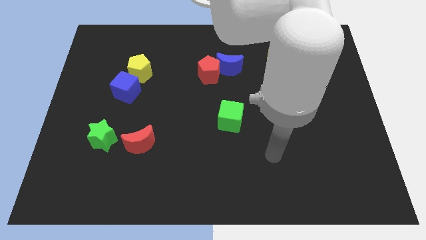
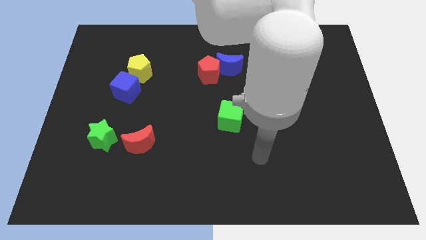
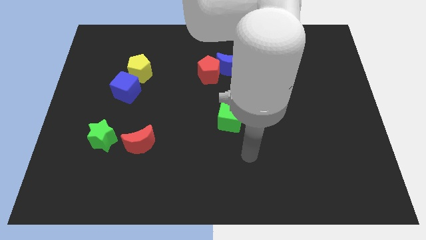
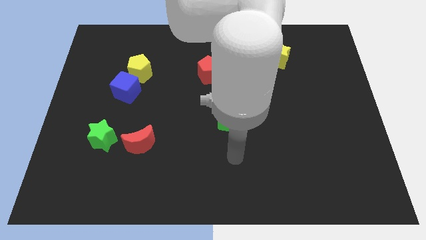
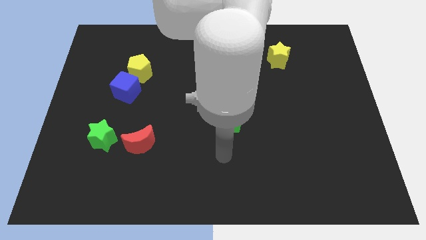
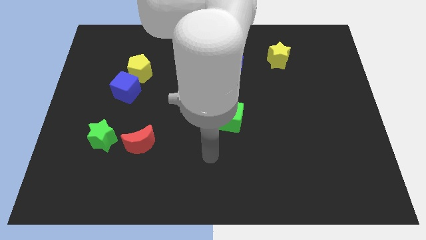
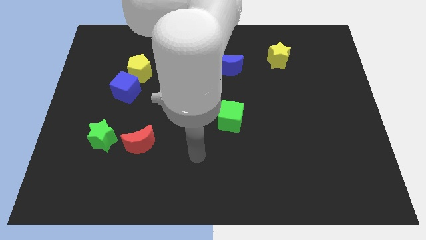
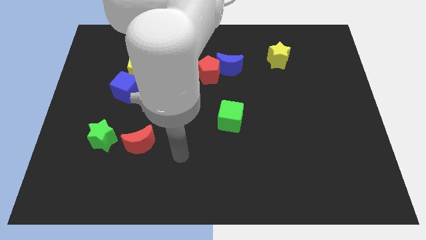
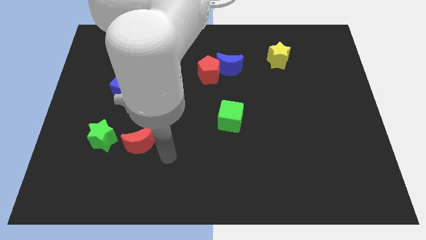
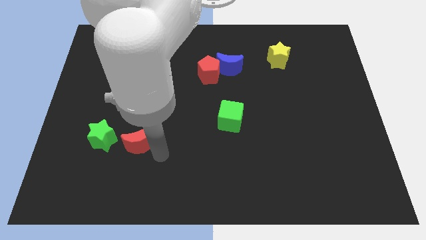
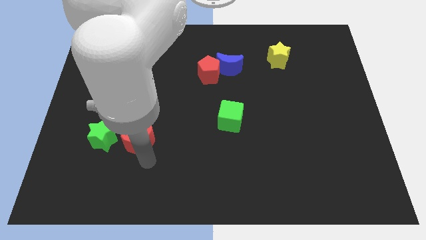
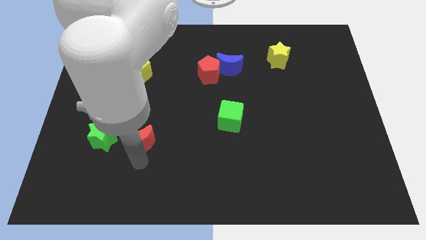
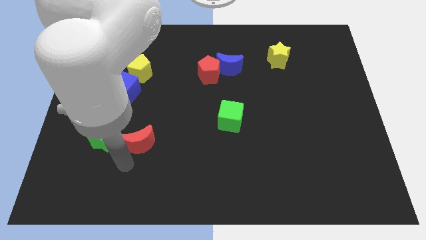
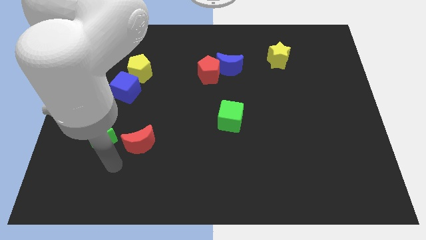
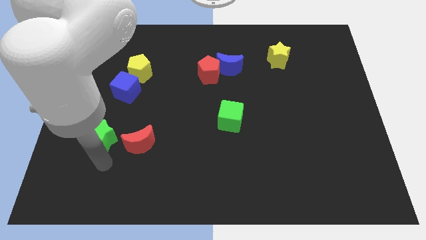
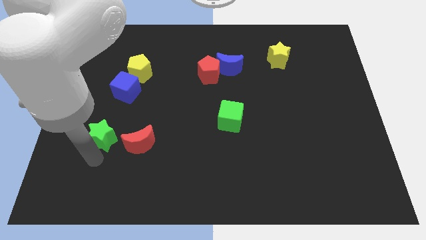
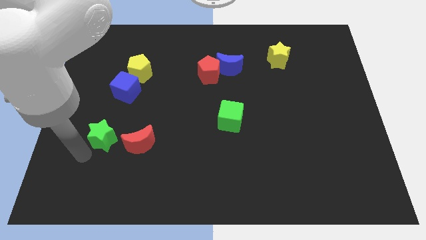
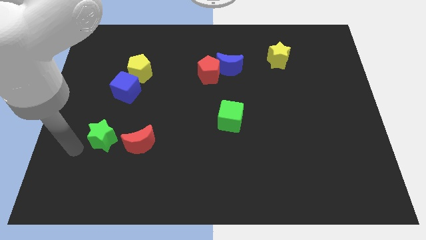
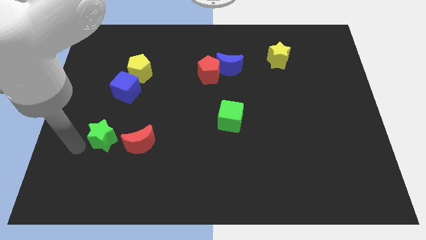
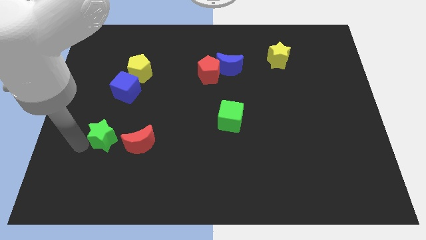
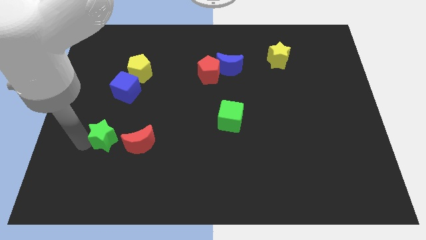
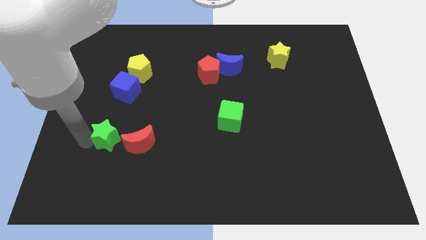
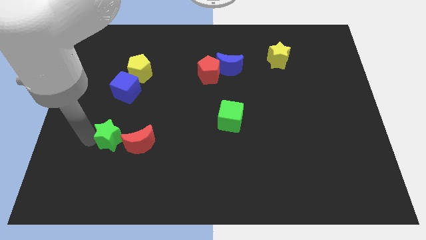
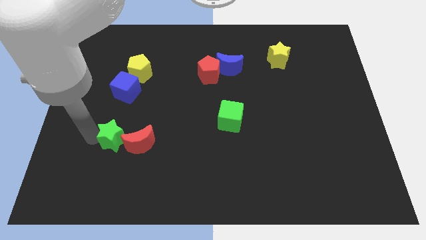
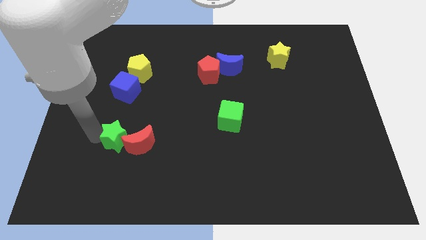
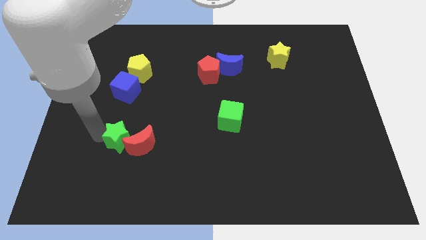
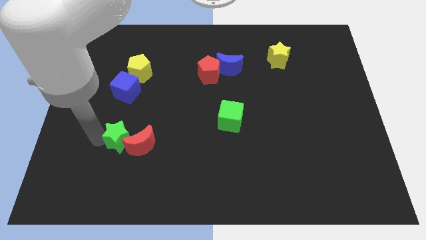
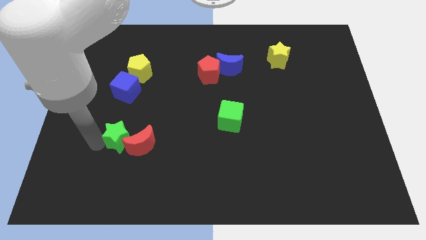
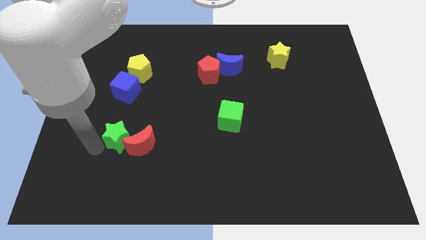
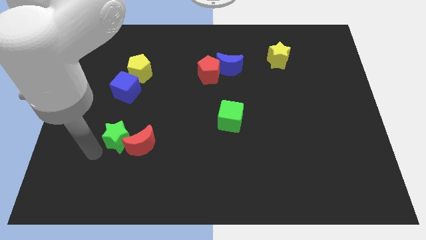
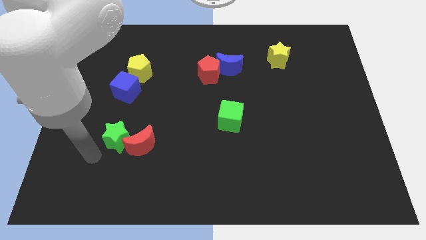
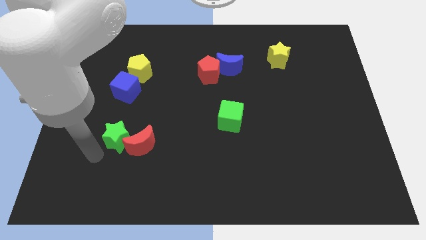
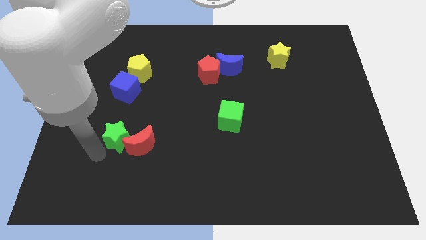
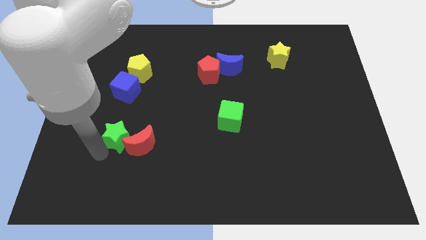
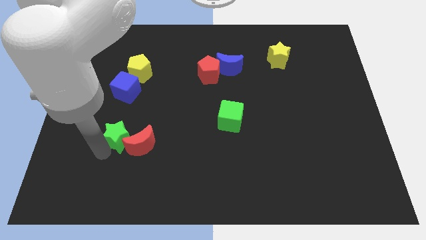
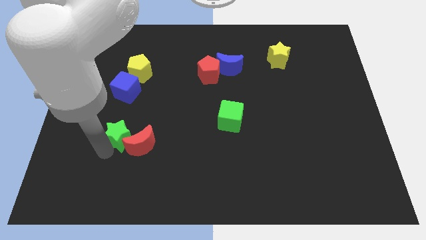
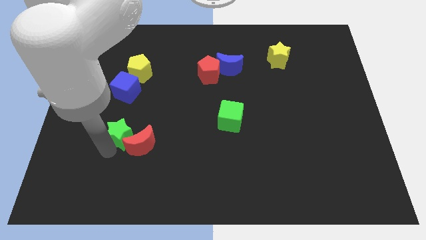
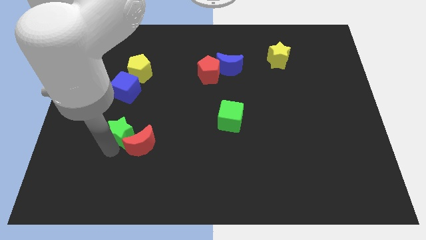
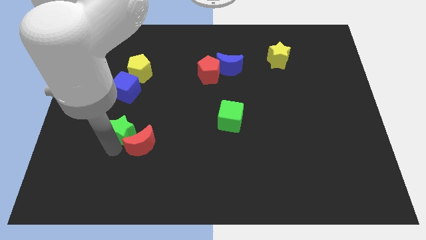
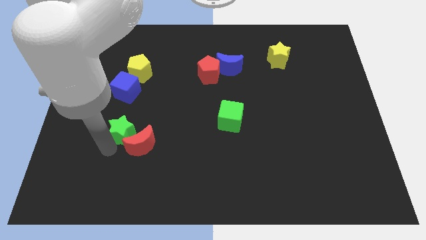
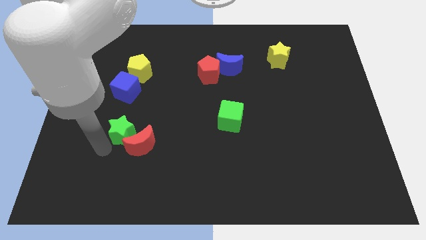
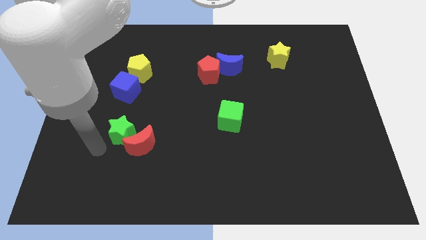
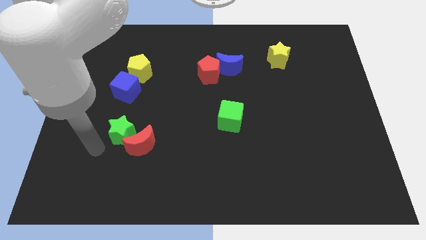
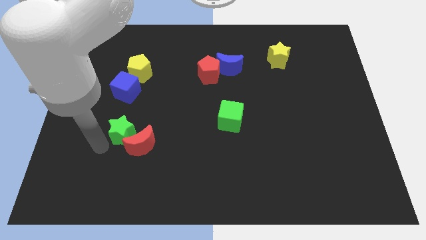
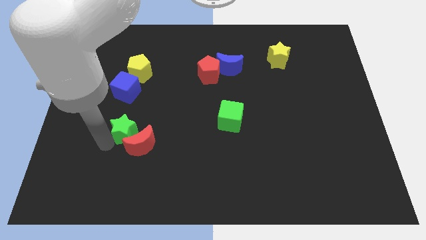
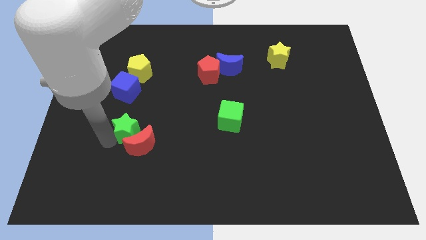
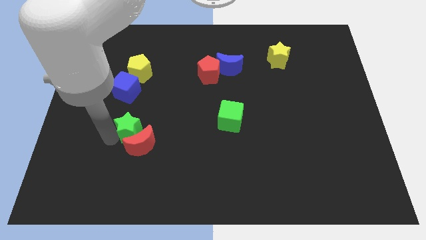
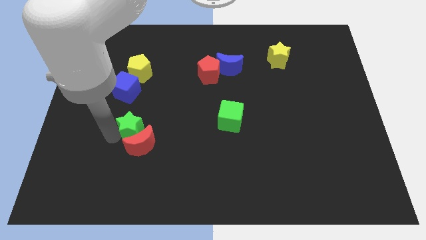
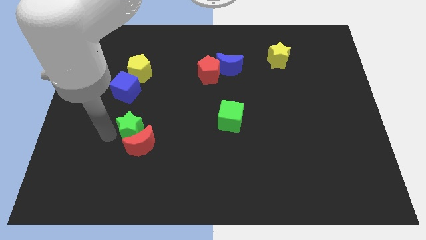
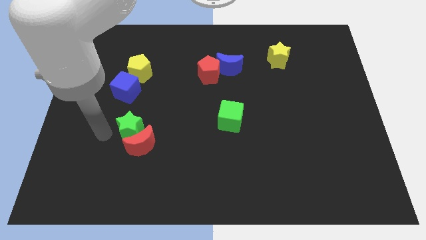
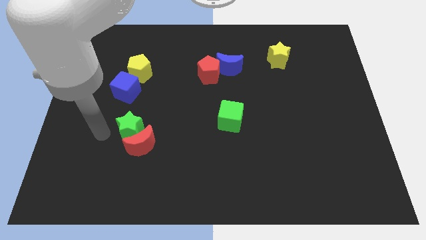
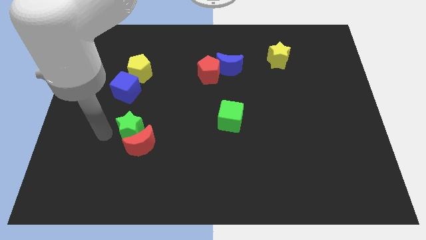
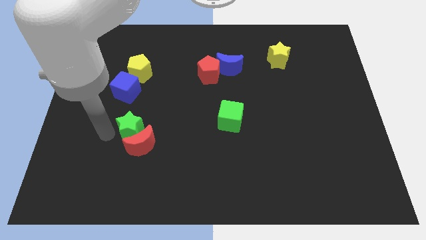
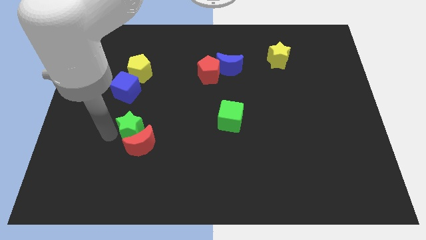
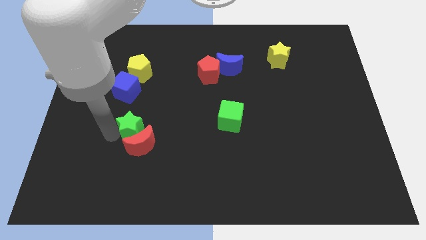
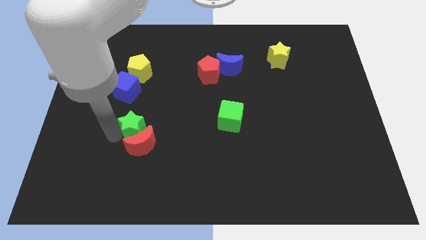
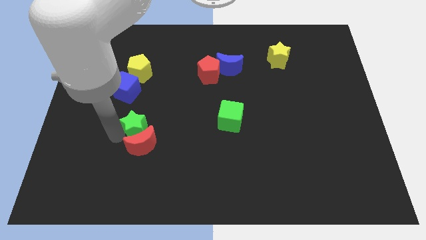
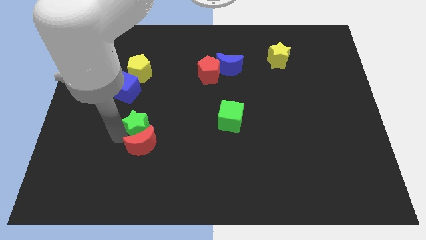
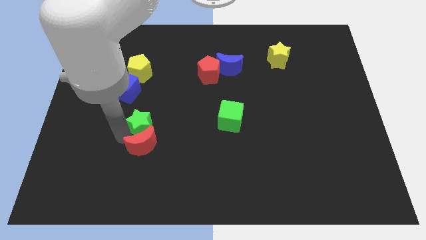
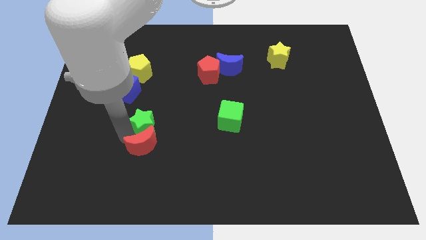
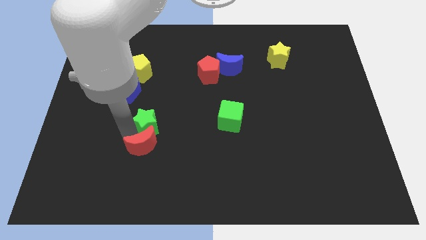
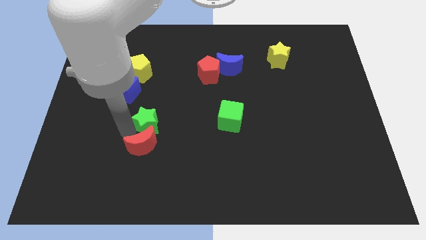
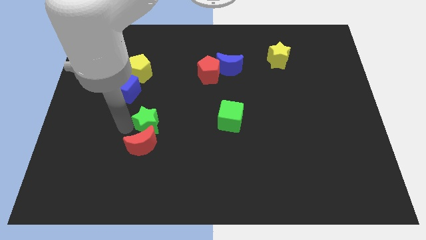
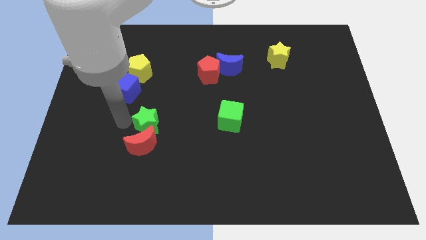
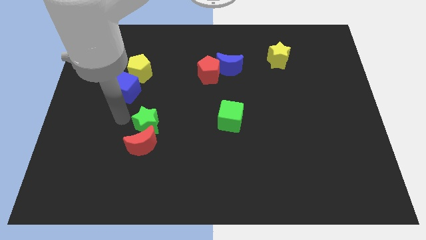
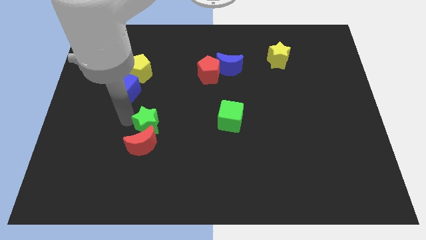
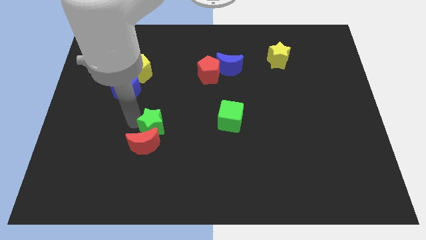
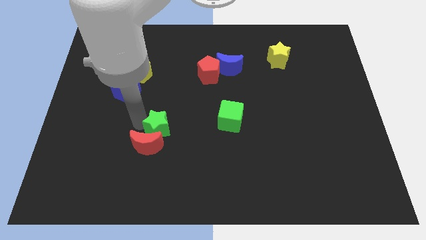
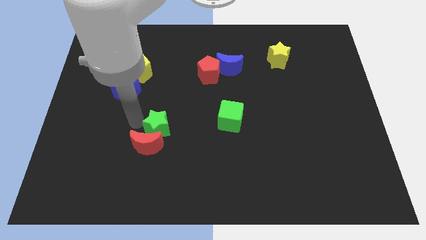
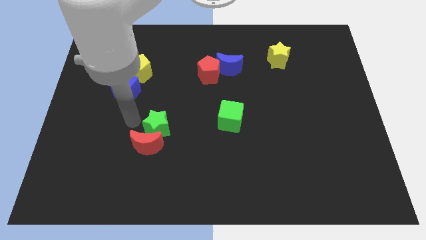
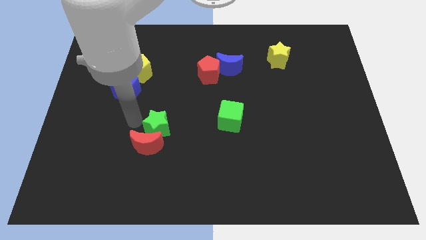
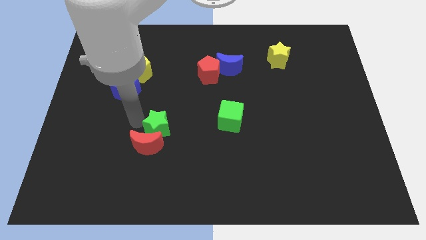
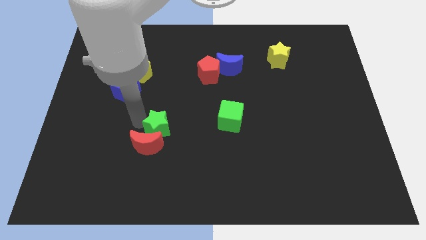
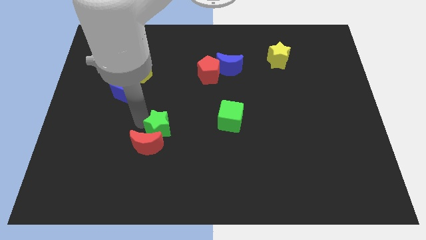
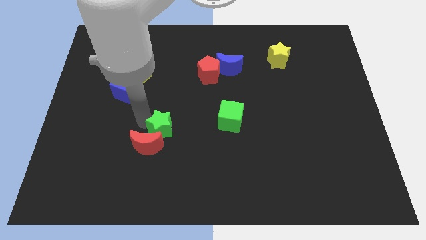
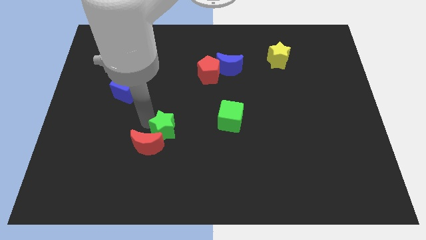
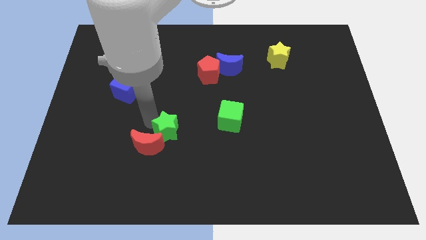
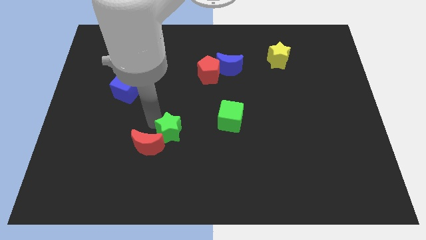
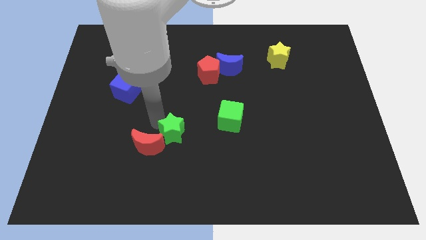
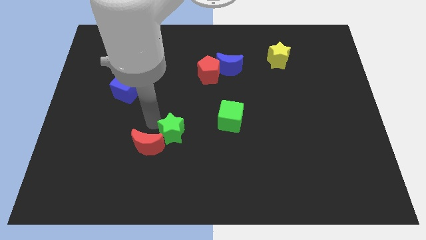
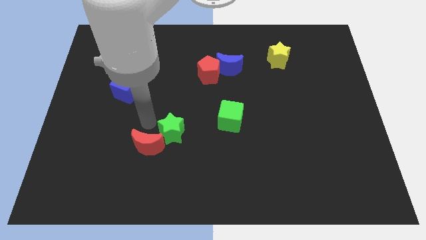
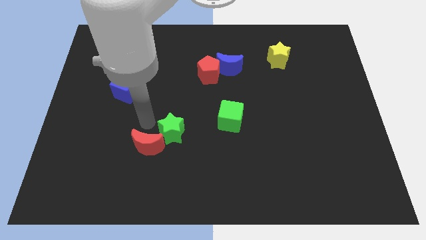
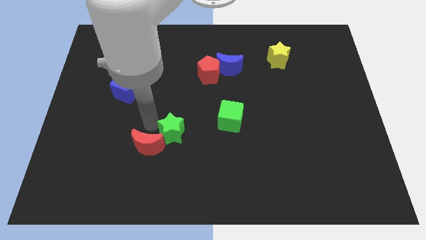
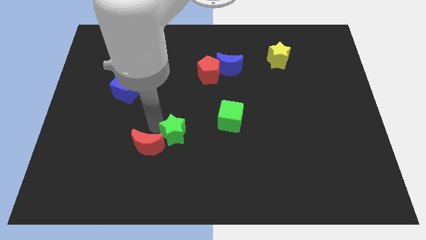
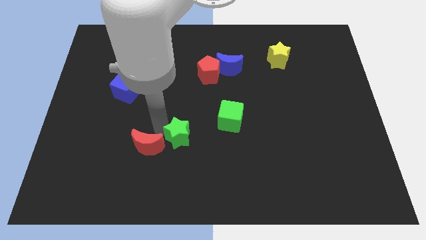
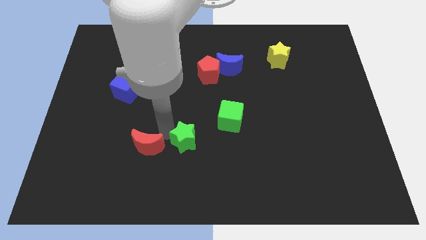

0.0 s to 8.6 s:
slide the green star to the bottom left side of the green cube

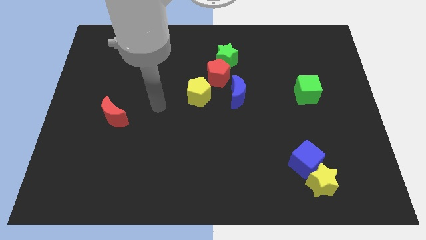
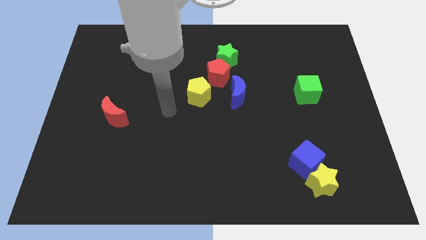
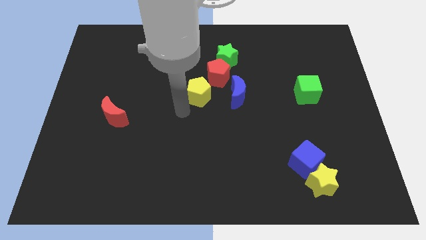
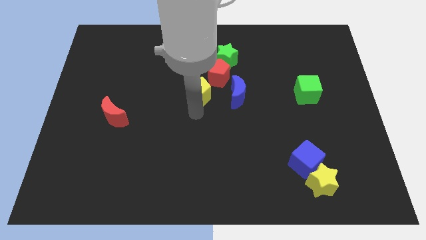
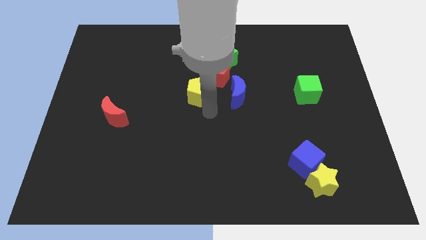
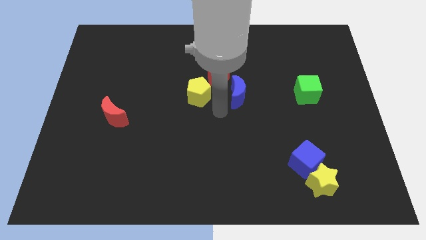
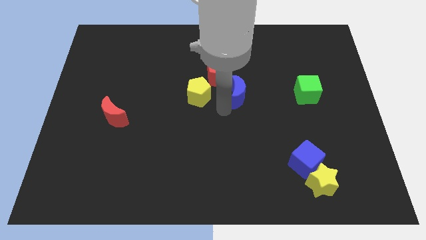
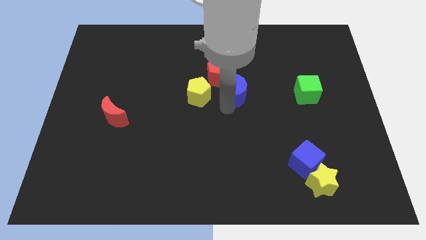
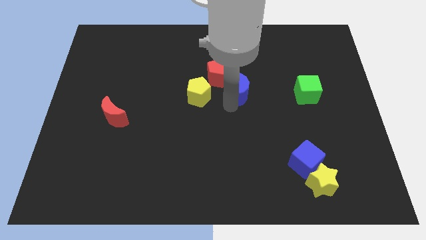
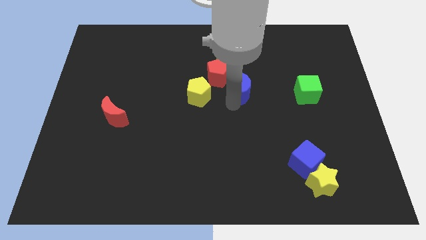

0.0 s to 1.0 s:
push the blue moon right of the red pentagon
